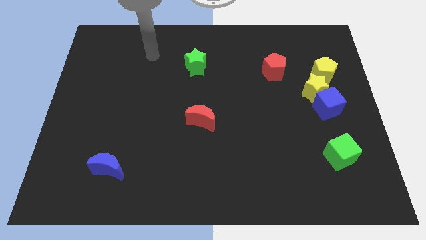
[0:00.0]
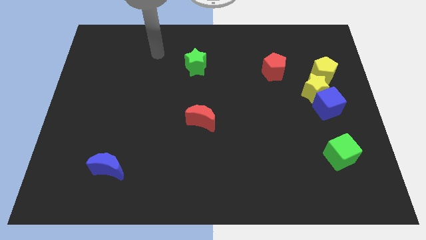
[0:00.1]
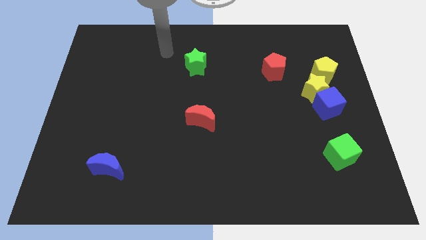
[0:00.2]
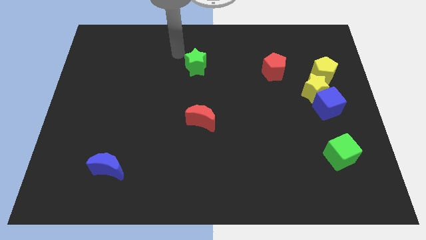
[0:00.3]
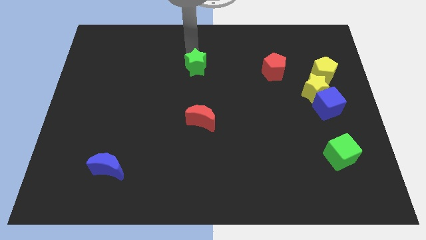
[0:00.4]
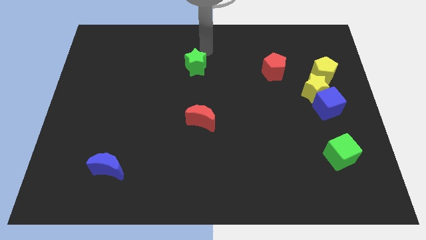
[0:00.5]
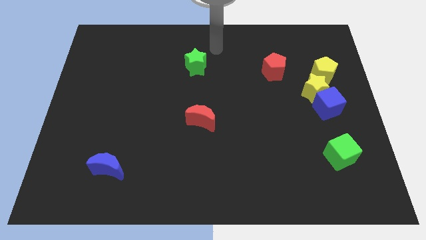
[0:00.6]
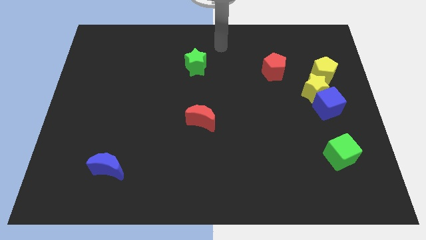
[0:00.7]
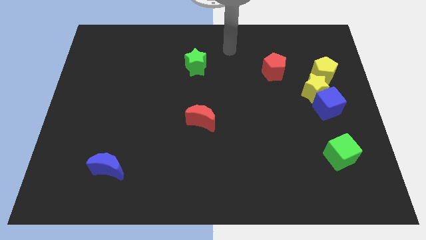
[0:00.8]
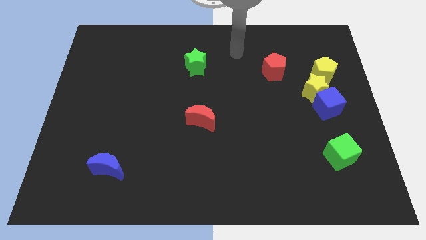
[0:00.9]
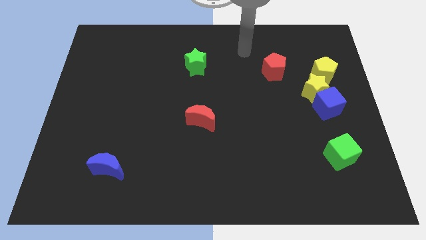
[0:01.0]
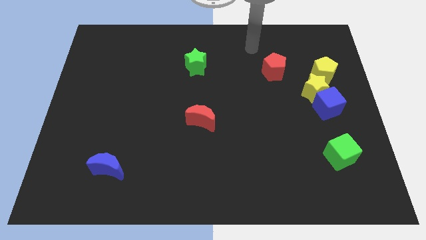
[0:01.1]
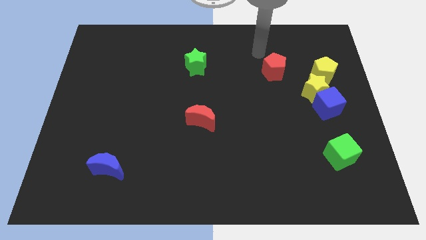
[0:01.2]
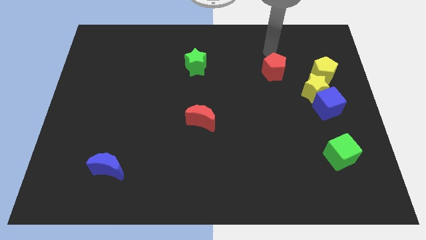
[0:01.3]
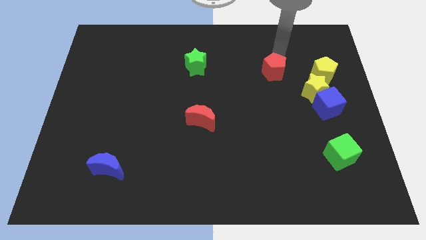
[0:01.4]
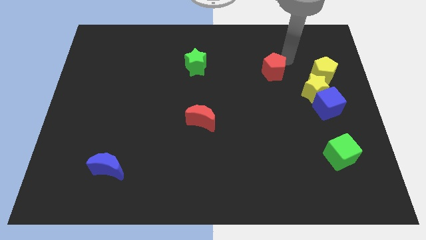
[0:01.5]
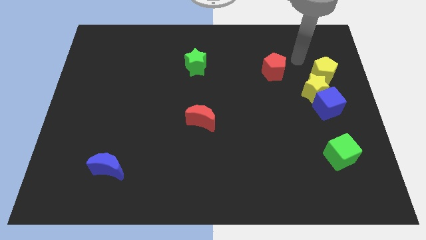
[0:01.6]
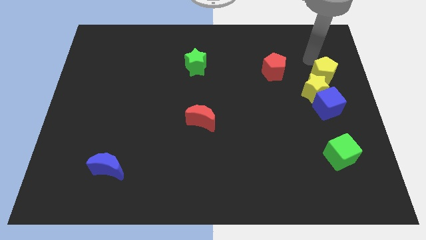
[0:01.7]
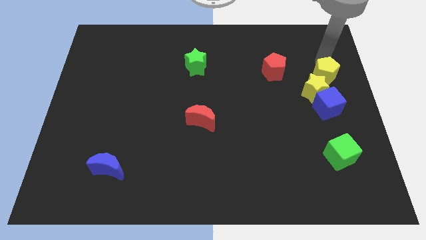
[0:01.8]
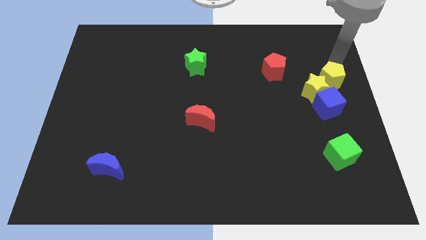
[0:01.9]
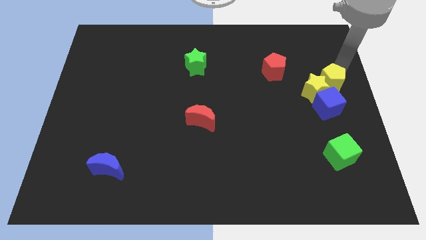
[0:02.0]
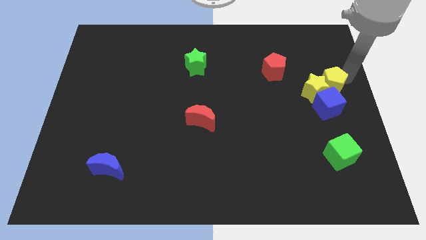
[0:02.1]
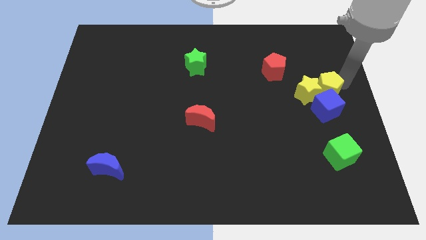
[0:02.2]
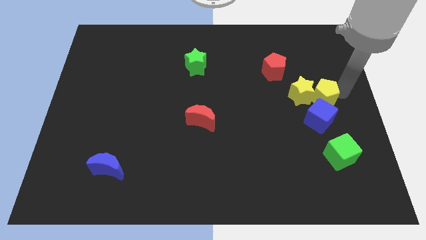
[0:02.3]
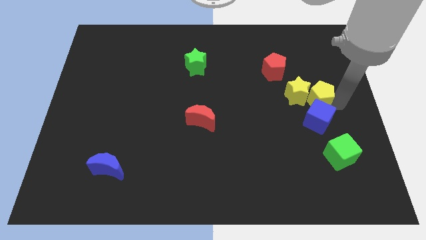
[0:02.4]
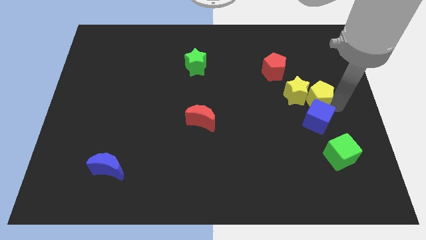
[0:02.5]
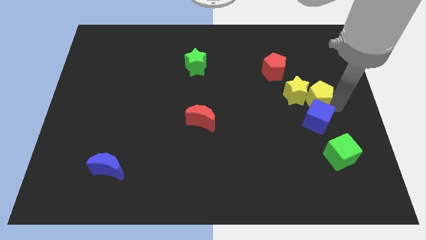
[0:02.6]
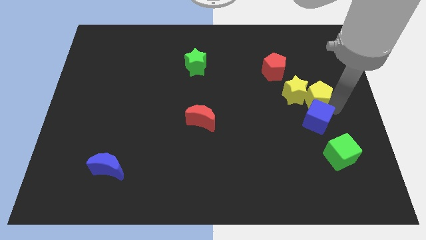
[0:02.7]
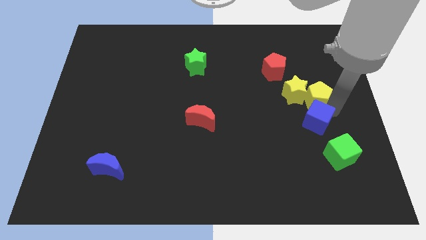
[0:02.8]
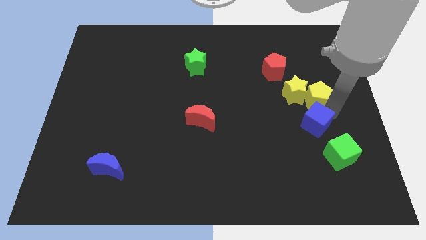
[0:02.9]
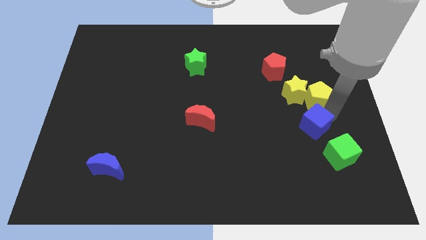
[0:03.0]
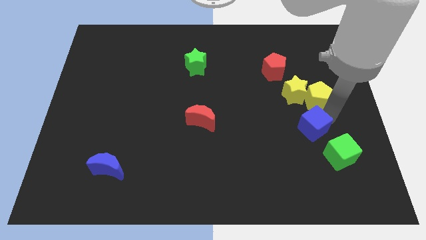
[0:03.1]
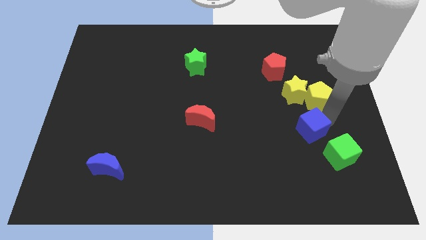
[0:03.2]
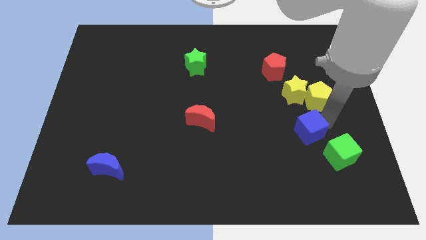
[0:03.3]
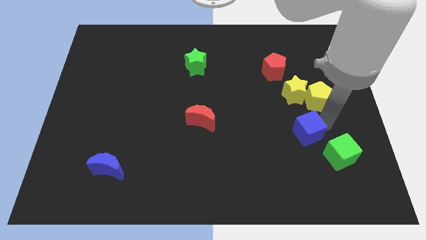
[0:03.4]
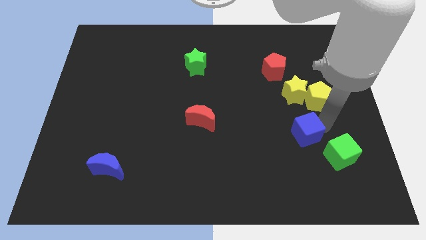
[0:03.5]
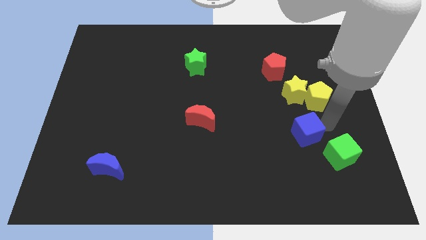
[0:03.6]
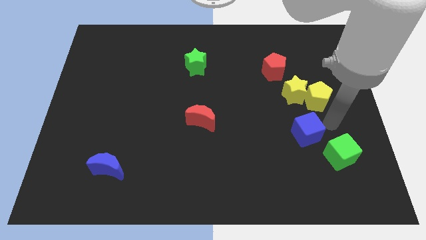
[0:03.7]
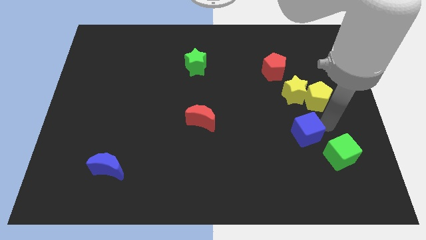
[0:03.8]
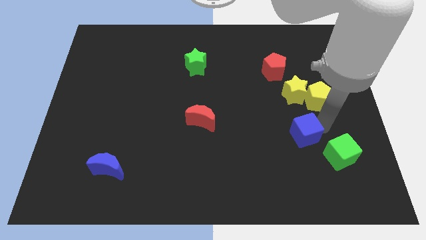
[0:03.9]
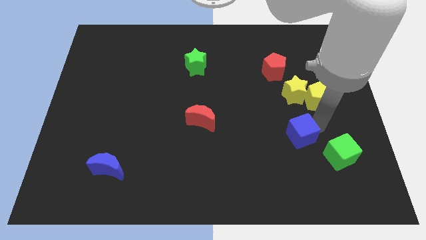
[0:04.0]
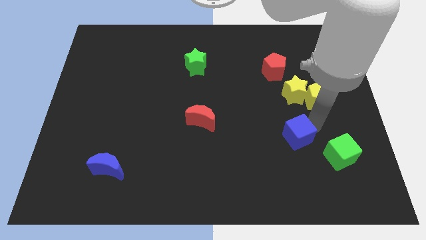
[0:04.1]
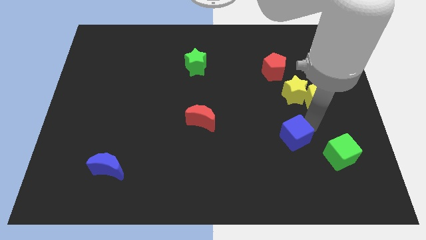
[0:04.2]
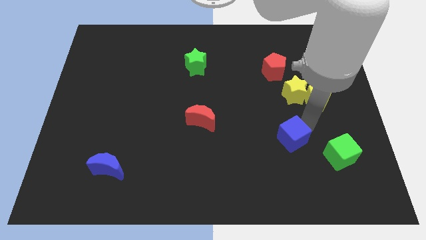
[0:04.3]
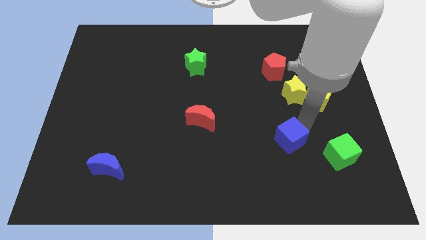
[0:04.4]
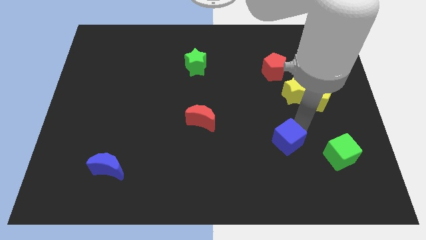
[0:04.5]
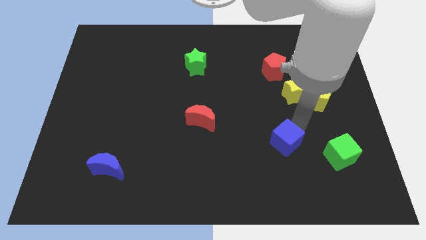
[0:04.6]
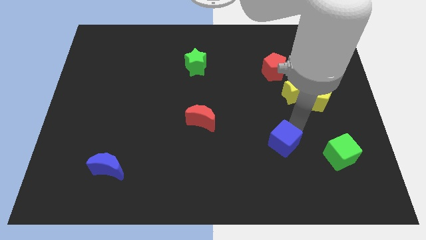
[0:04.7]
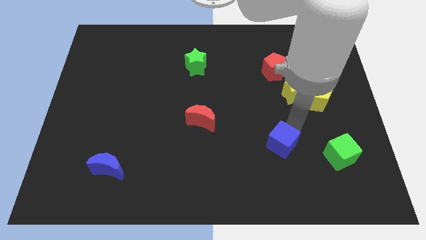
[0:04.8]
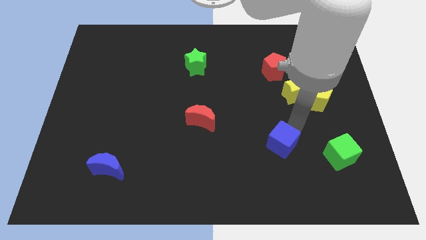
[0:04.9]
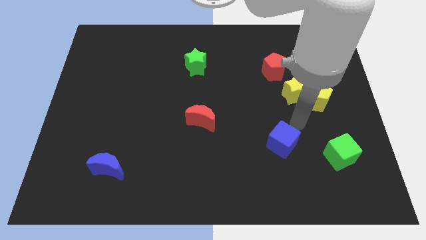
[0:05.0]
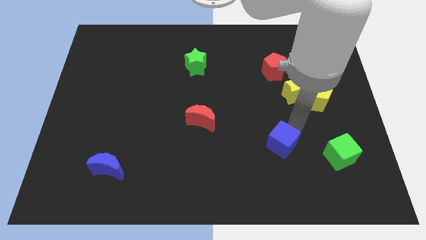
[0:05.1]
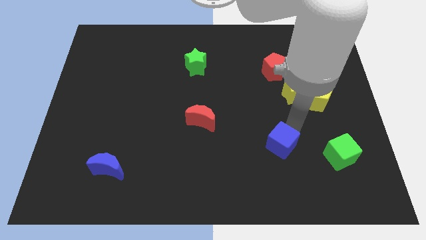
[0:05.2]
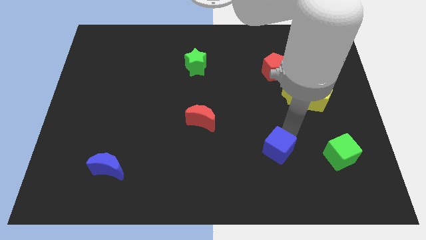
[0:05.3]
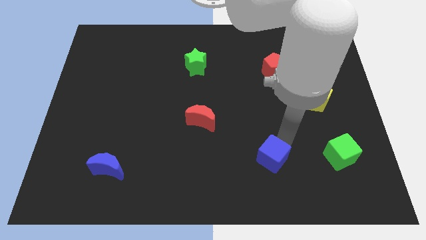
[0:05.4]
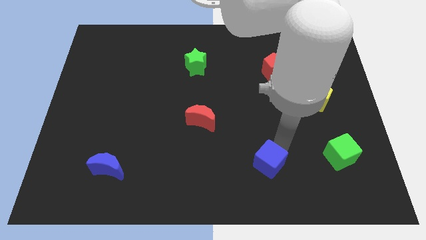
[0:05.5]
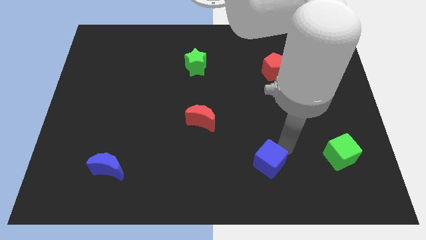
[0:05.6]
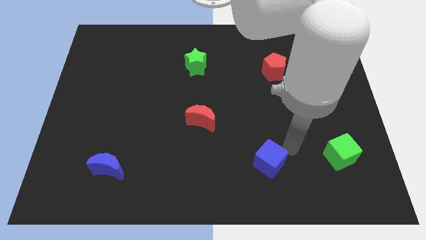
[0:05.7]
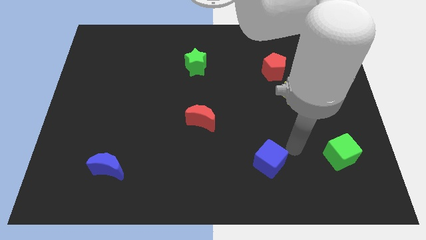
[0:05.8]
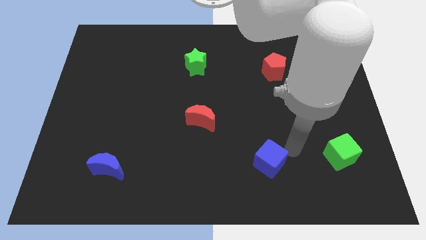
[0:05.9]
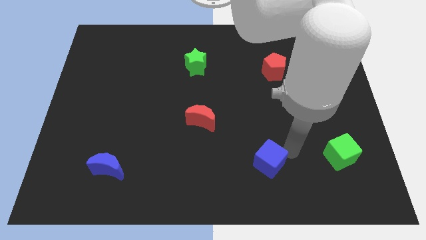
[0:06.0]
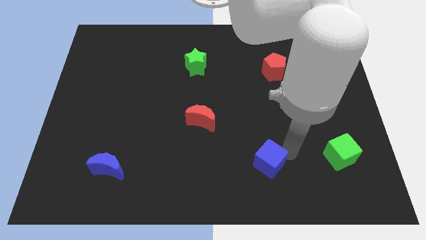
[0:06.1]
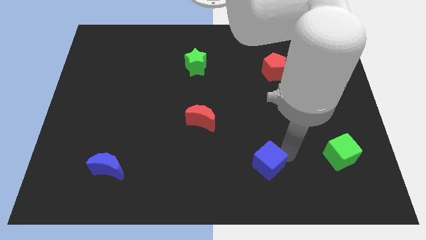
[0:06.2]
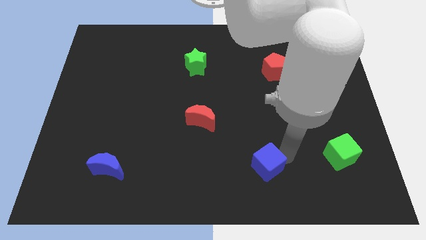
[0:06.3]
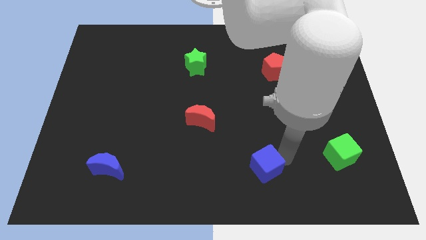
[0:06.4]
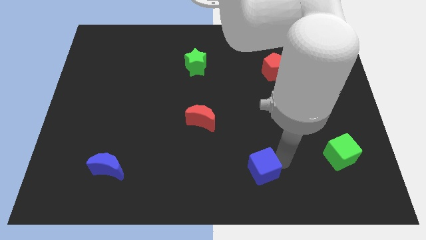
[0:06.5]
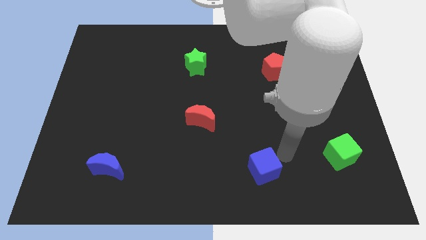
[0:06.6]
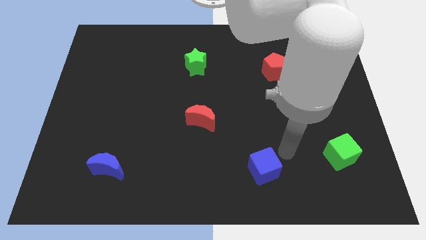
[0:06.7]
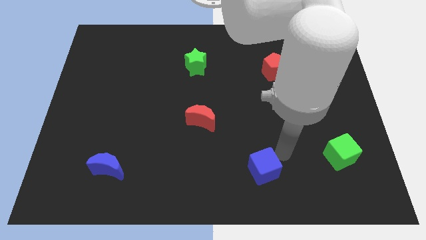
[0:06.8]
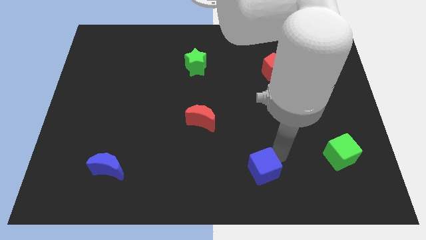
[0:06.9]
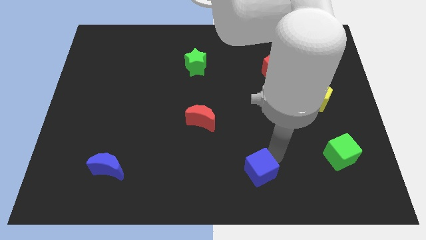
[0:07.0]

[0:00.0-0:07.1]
put the blue cube to the bottom
